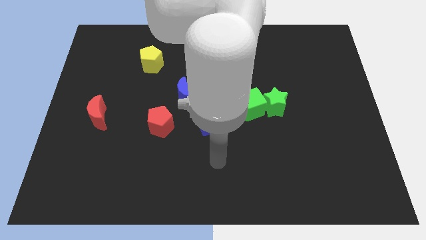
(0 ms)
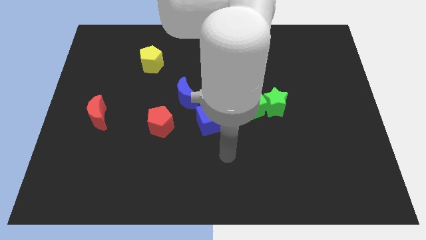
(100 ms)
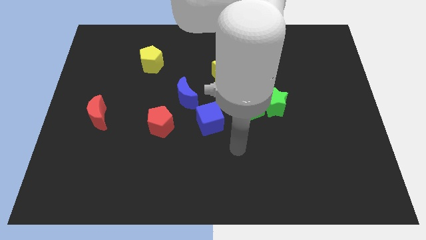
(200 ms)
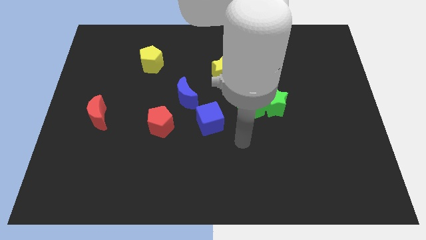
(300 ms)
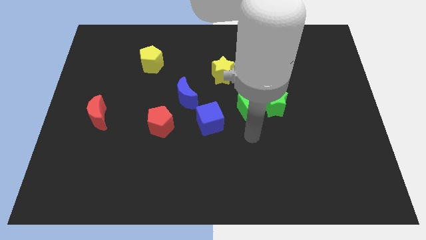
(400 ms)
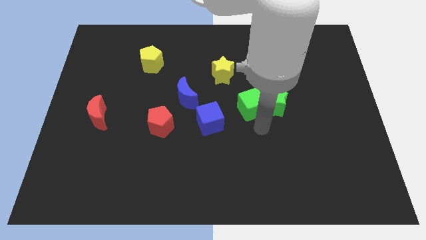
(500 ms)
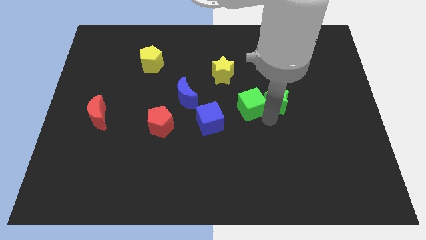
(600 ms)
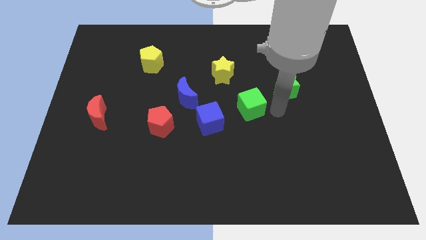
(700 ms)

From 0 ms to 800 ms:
separate the green cube from the green star

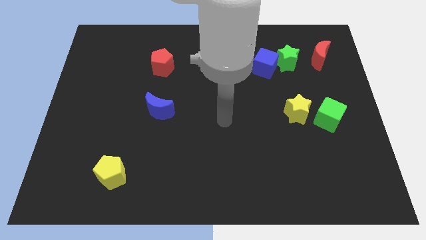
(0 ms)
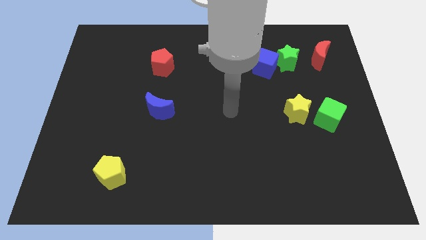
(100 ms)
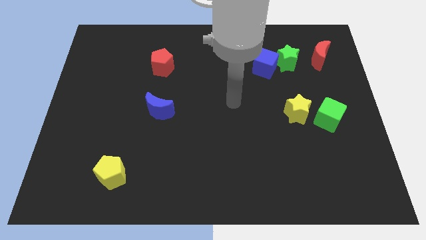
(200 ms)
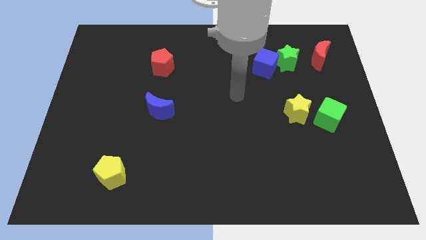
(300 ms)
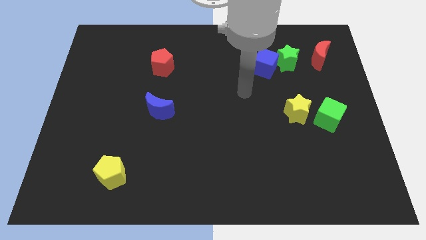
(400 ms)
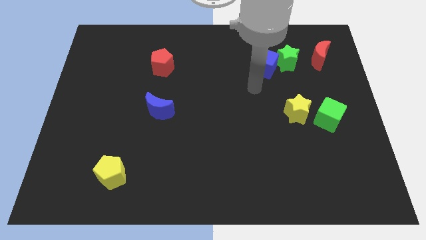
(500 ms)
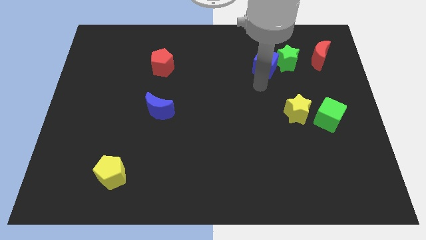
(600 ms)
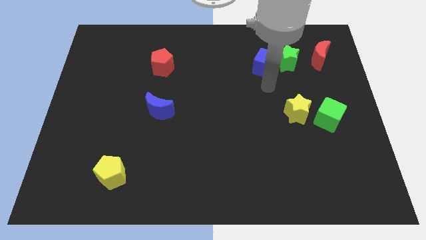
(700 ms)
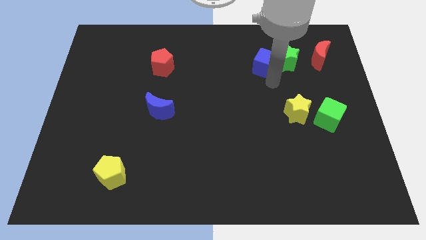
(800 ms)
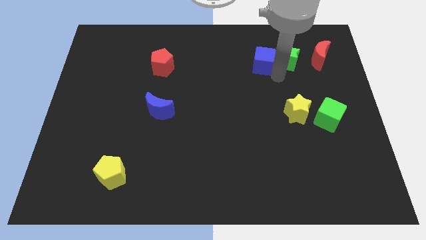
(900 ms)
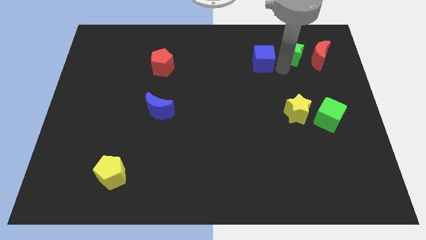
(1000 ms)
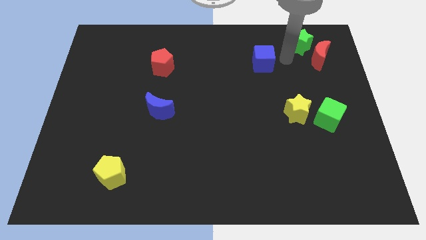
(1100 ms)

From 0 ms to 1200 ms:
move the blue cube away from the green star

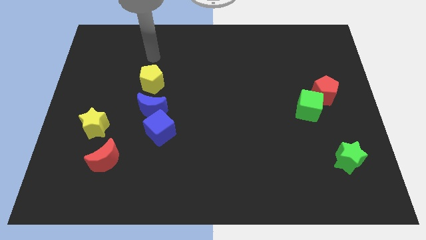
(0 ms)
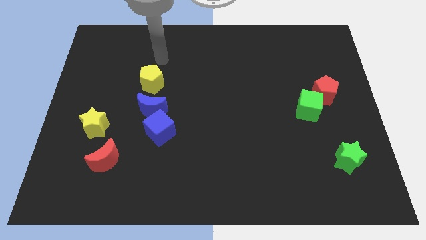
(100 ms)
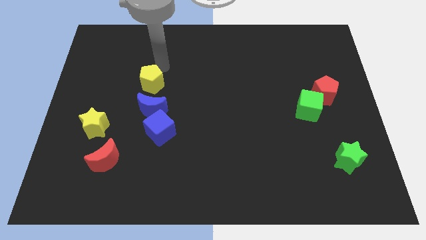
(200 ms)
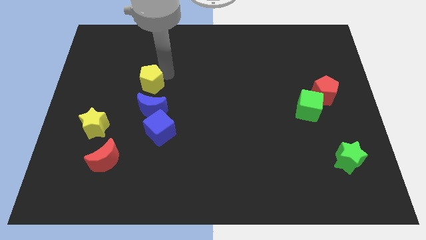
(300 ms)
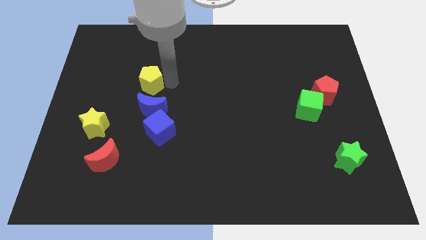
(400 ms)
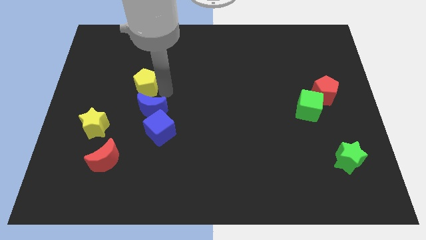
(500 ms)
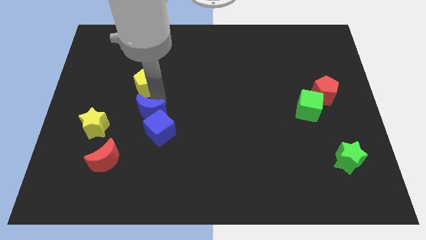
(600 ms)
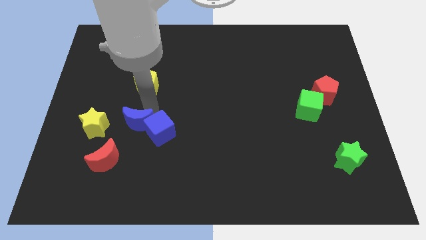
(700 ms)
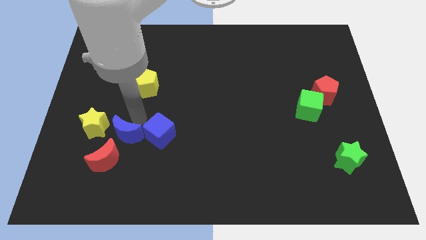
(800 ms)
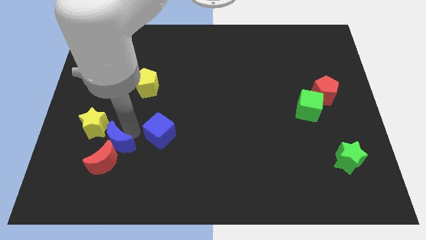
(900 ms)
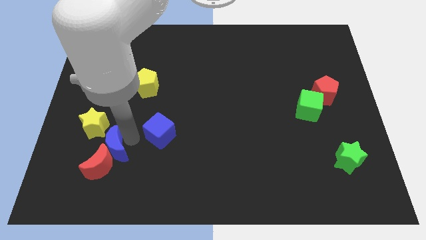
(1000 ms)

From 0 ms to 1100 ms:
pull the blue cube apart from the blue moon

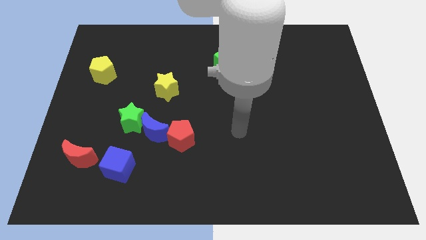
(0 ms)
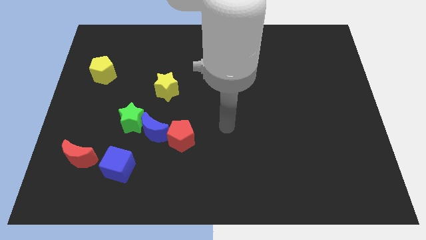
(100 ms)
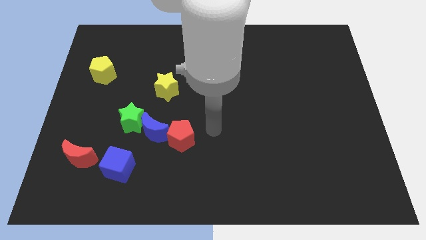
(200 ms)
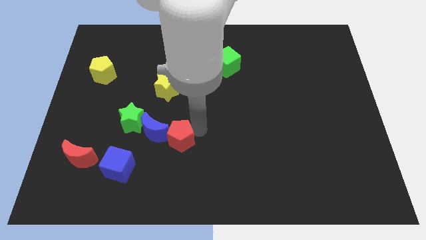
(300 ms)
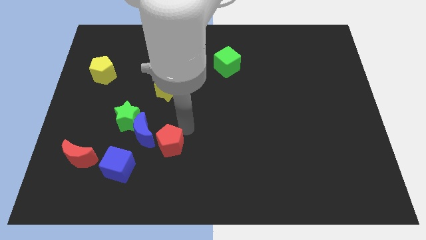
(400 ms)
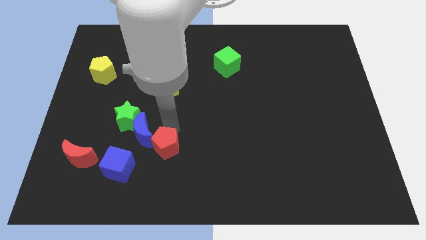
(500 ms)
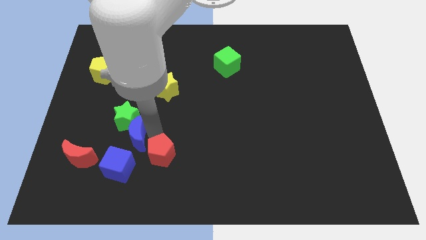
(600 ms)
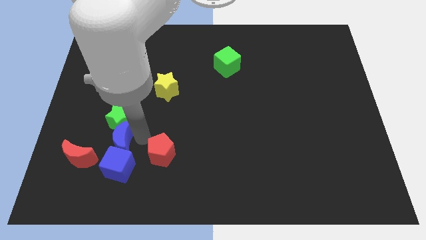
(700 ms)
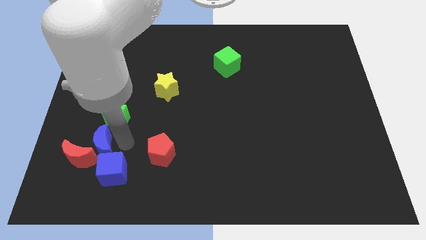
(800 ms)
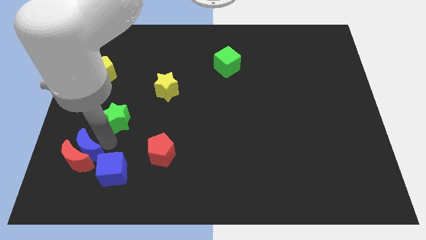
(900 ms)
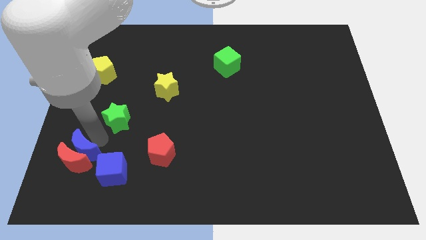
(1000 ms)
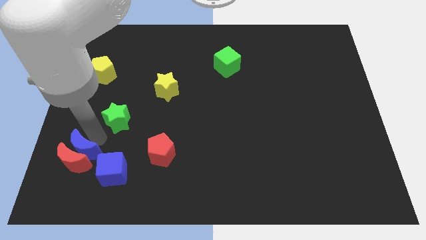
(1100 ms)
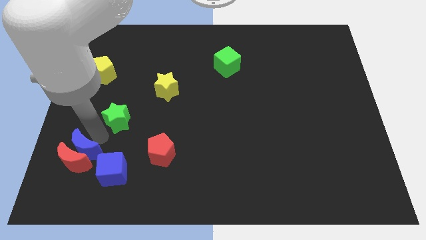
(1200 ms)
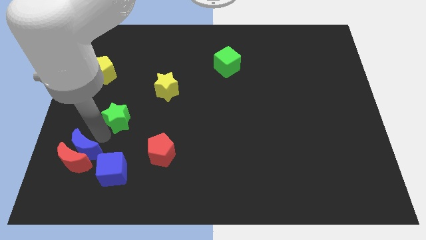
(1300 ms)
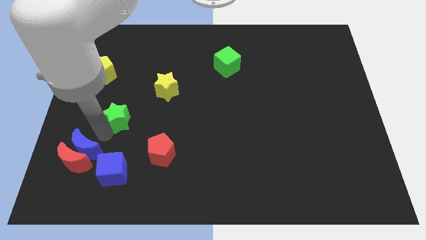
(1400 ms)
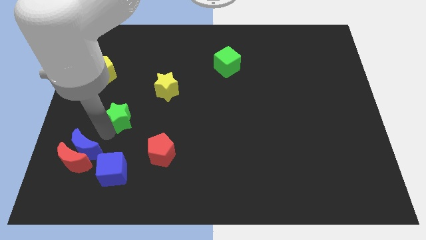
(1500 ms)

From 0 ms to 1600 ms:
move the green star away from the blue moon

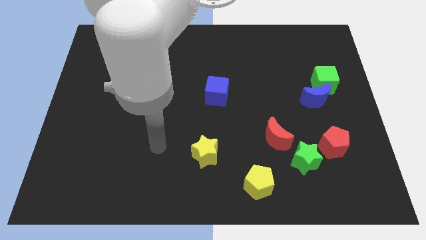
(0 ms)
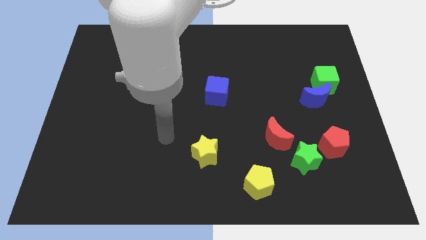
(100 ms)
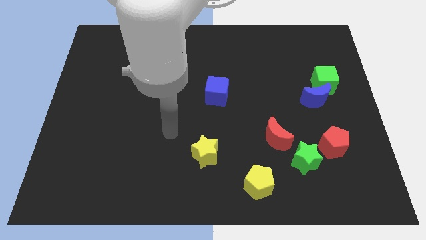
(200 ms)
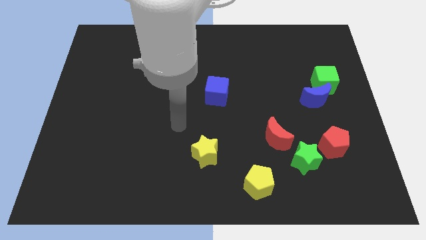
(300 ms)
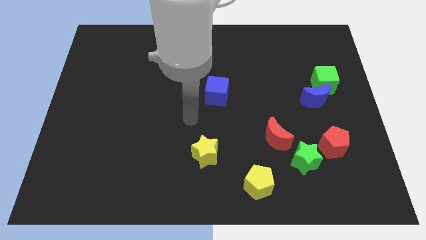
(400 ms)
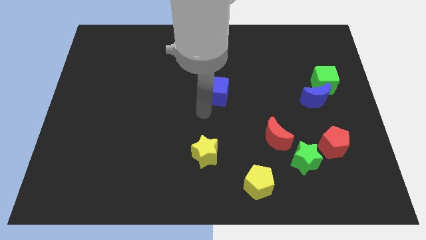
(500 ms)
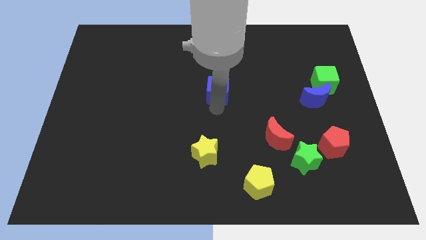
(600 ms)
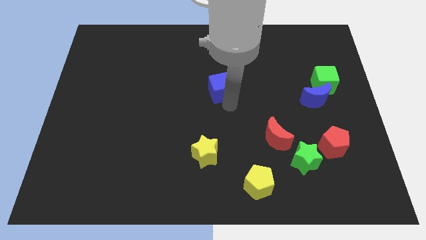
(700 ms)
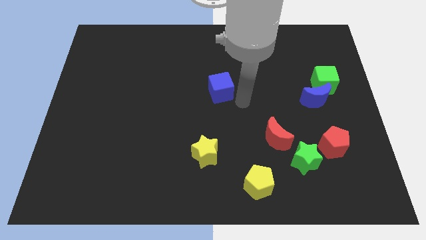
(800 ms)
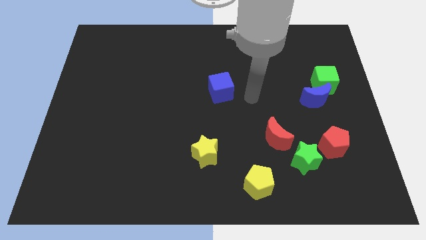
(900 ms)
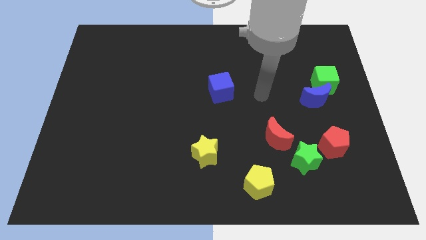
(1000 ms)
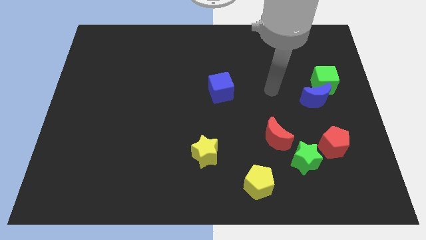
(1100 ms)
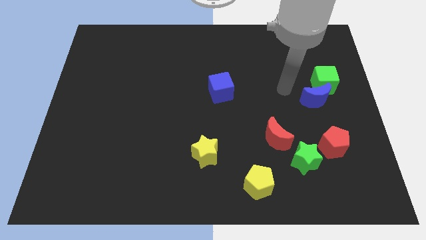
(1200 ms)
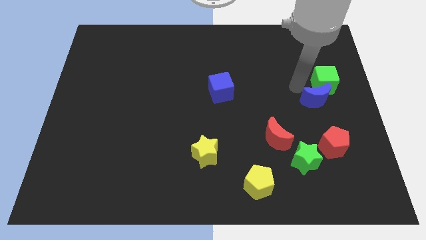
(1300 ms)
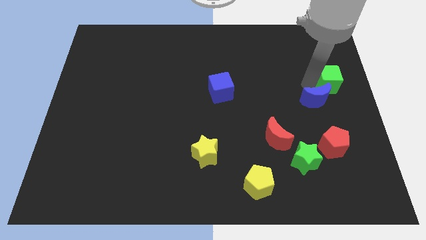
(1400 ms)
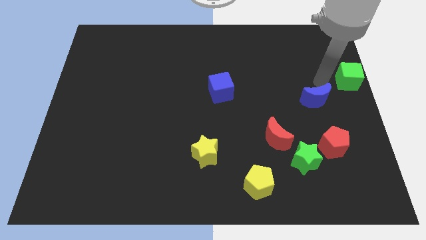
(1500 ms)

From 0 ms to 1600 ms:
separate the blue moon from the green cube

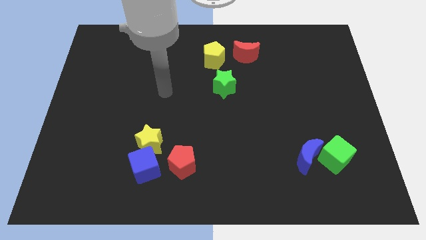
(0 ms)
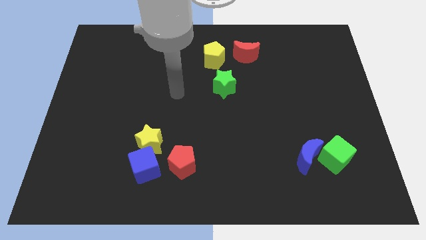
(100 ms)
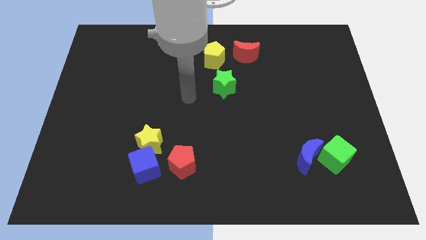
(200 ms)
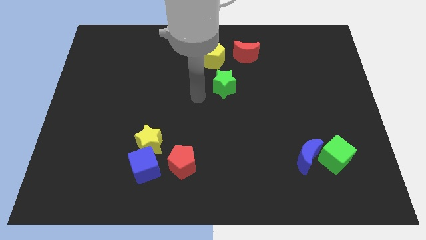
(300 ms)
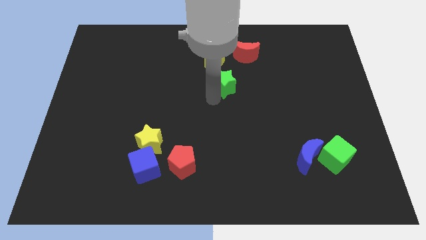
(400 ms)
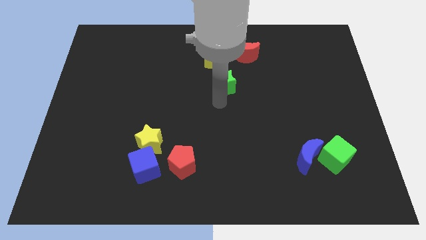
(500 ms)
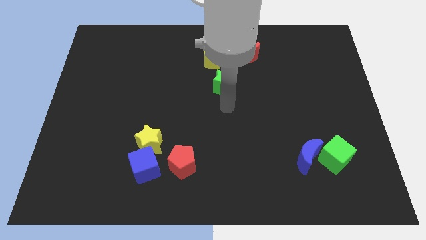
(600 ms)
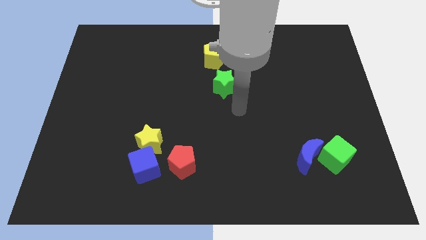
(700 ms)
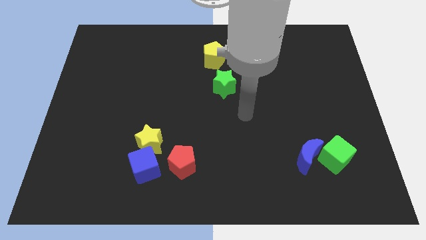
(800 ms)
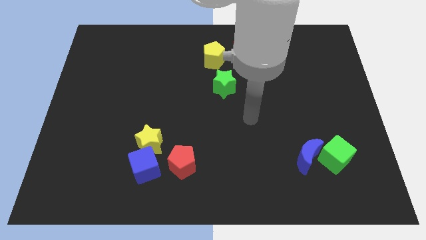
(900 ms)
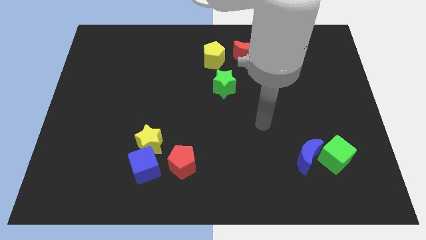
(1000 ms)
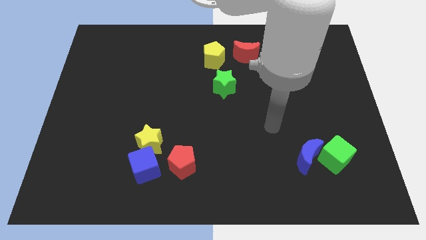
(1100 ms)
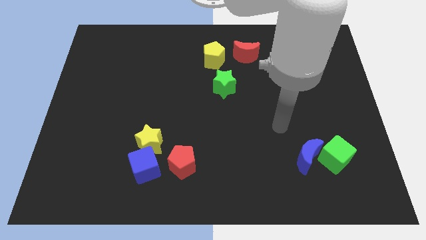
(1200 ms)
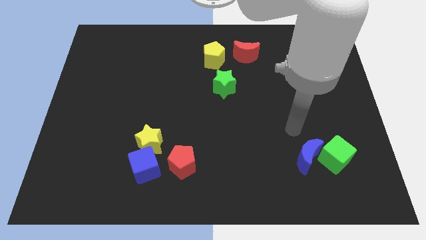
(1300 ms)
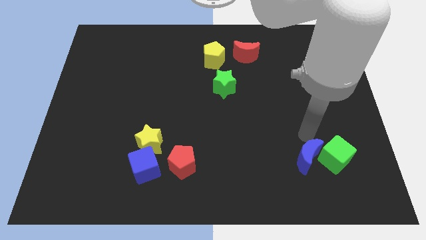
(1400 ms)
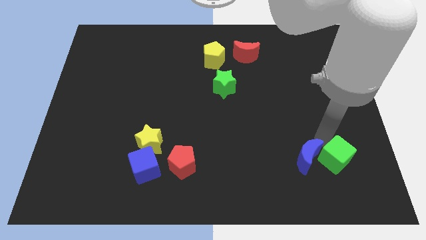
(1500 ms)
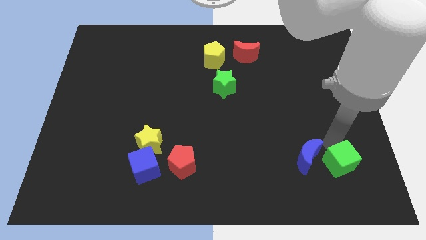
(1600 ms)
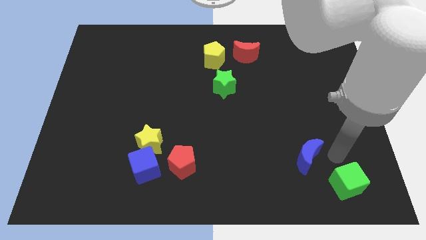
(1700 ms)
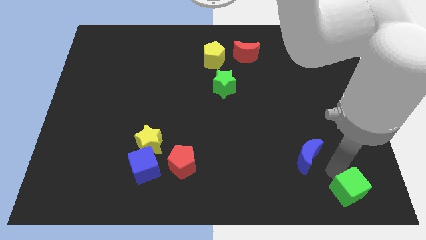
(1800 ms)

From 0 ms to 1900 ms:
pull the blue moon apart from the green cube

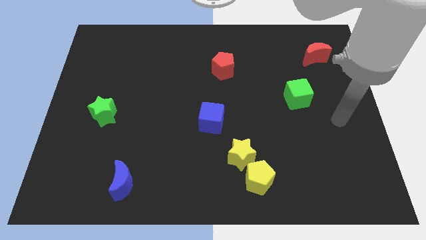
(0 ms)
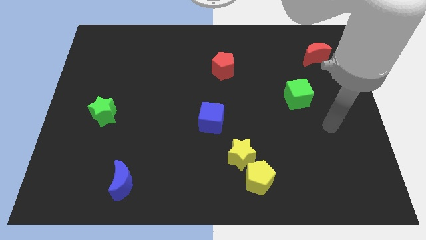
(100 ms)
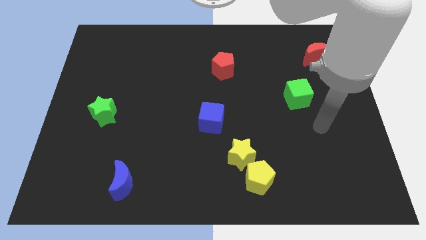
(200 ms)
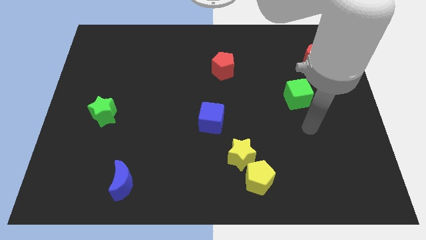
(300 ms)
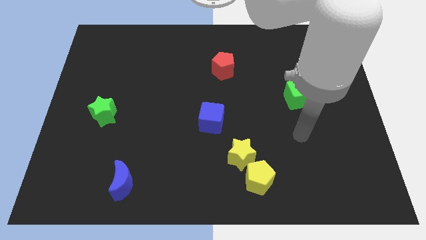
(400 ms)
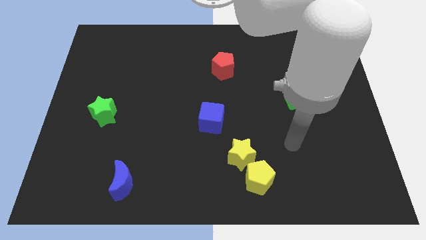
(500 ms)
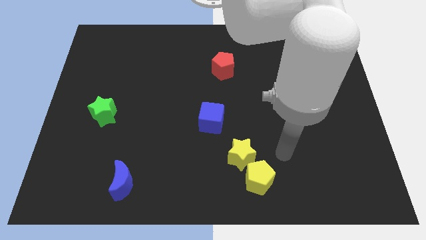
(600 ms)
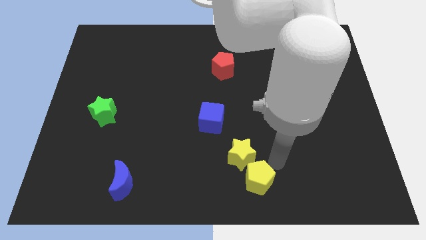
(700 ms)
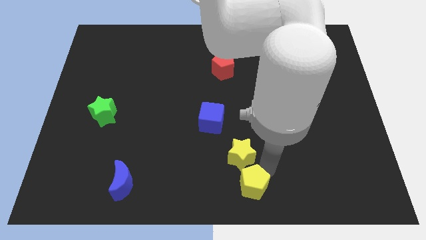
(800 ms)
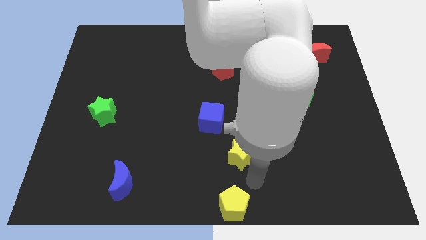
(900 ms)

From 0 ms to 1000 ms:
move the yellow star away from the yellow pentagon

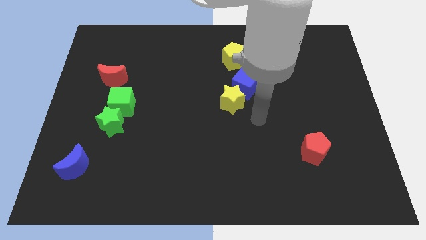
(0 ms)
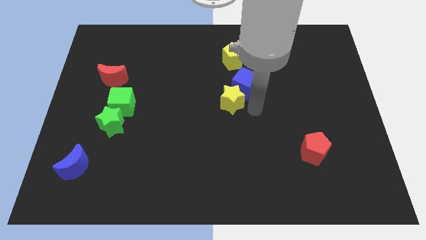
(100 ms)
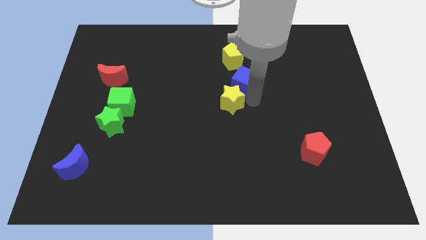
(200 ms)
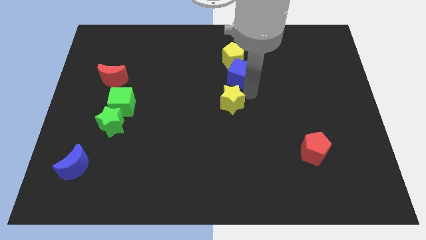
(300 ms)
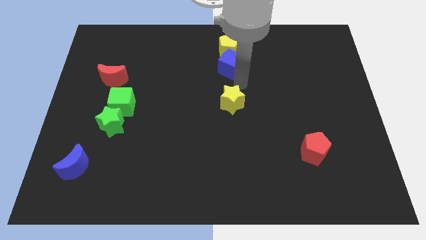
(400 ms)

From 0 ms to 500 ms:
pull the yellow star apart from the blue cube
